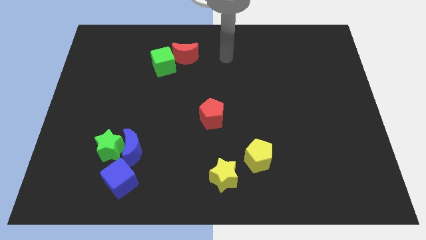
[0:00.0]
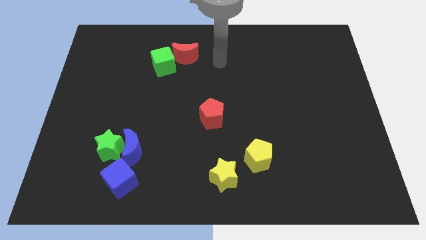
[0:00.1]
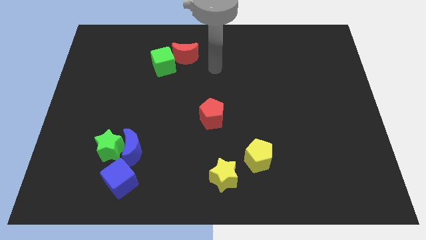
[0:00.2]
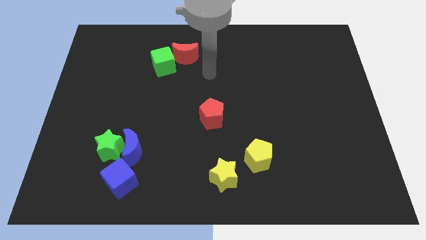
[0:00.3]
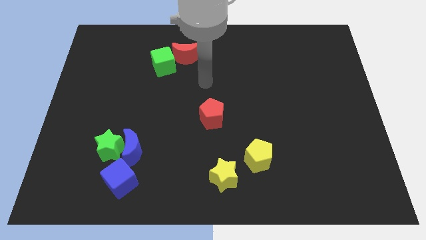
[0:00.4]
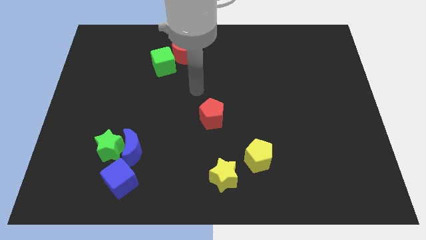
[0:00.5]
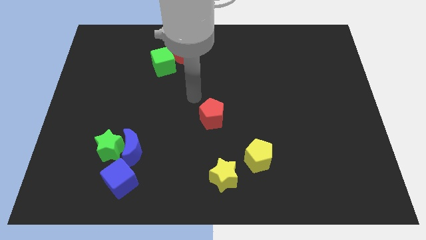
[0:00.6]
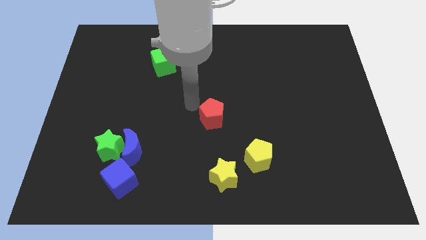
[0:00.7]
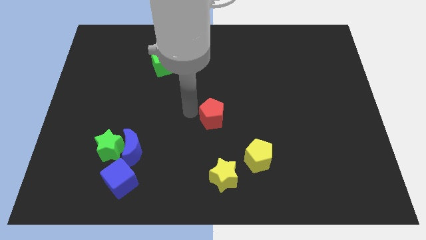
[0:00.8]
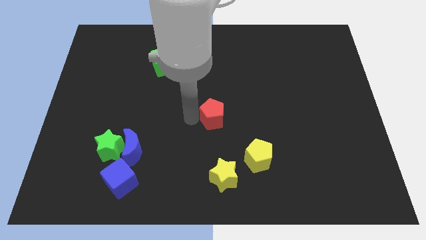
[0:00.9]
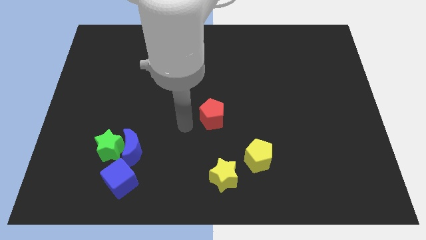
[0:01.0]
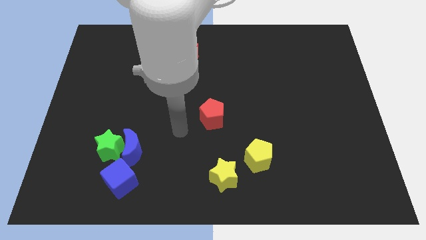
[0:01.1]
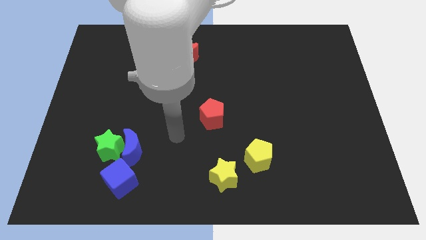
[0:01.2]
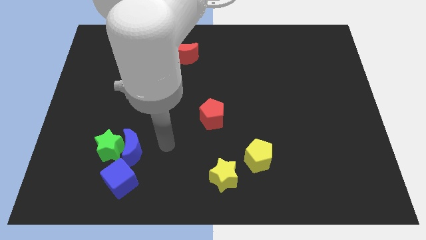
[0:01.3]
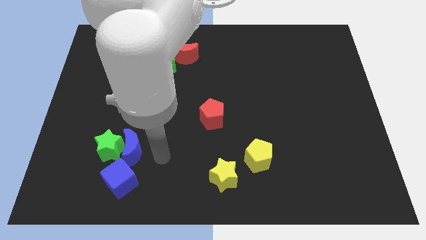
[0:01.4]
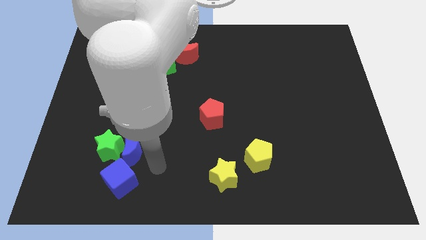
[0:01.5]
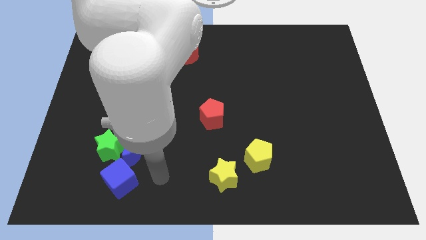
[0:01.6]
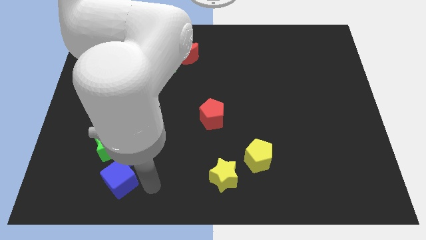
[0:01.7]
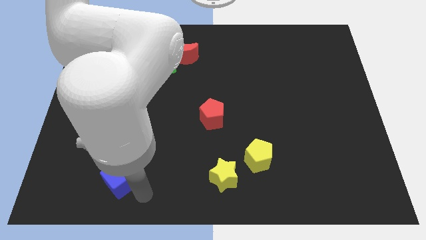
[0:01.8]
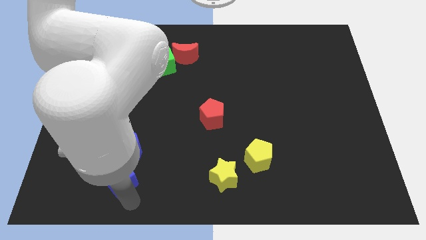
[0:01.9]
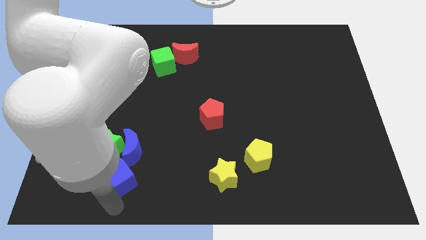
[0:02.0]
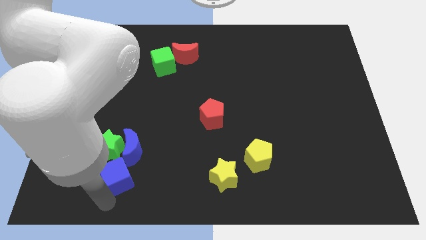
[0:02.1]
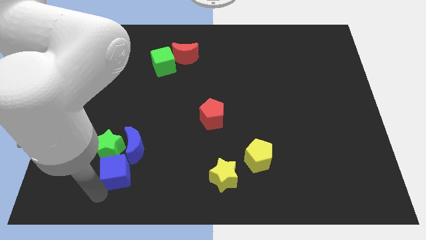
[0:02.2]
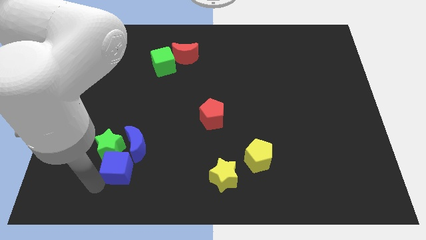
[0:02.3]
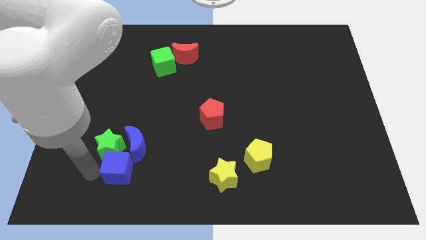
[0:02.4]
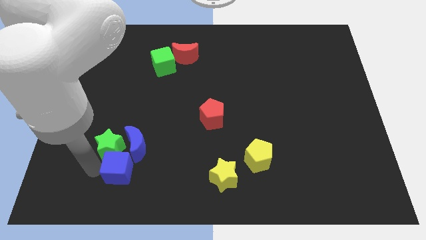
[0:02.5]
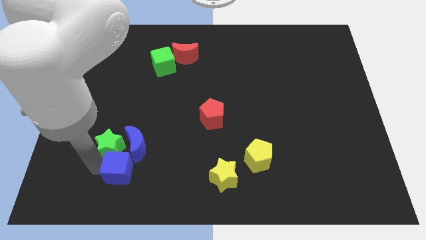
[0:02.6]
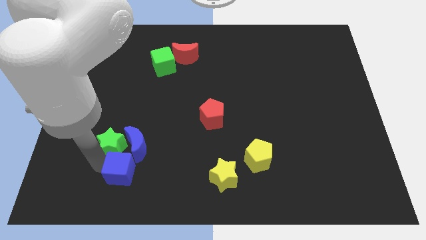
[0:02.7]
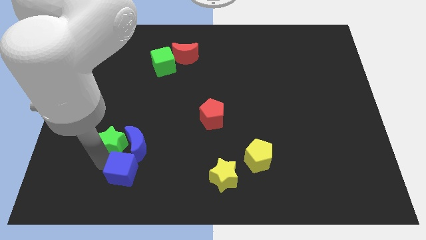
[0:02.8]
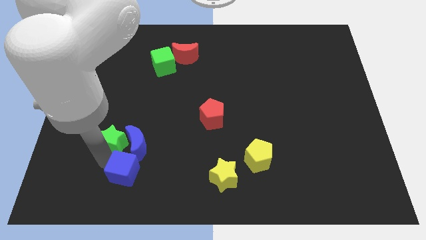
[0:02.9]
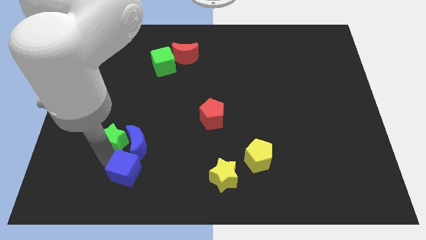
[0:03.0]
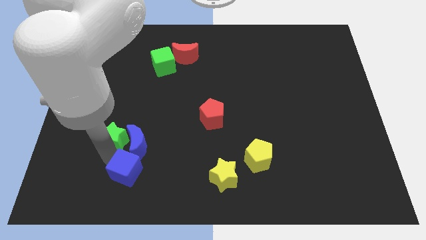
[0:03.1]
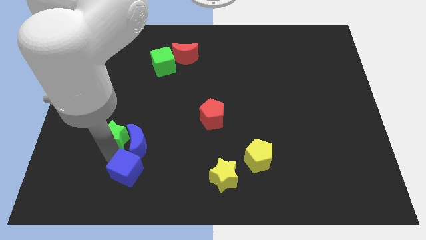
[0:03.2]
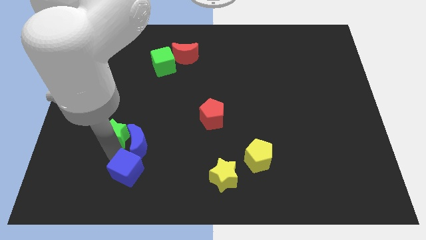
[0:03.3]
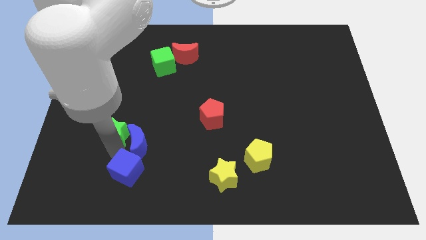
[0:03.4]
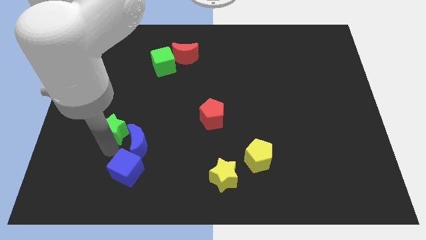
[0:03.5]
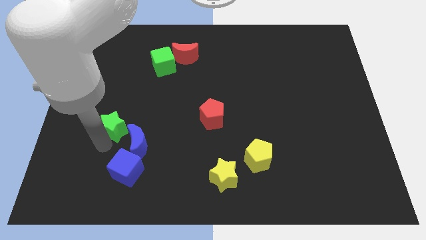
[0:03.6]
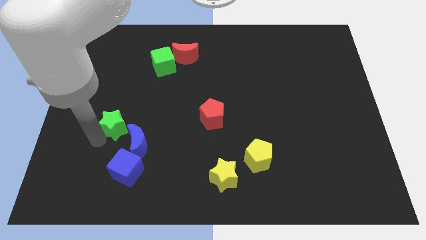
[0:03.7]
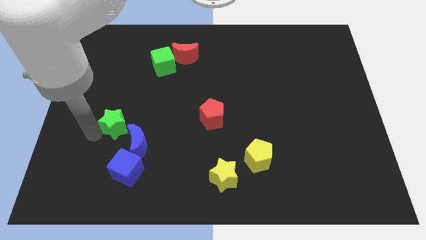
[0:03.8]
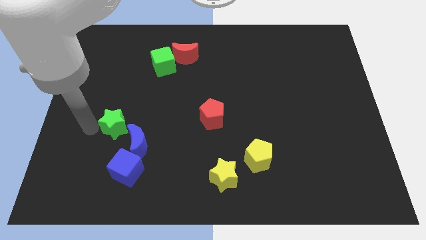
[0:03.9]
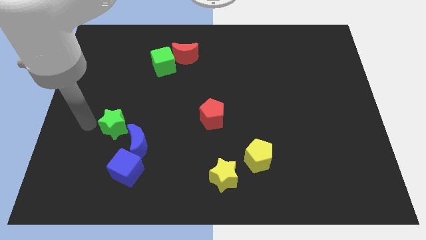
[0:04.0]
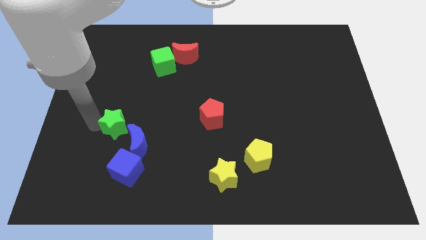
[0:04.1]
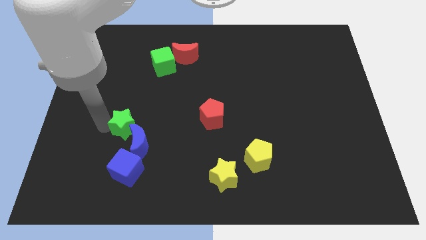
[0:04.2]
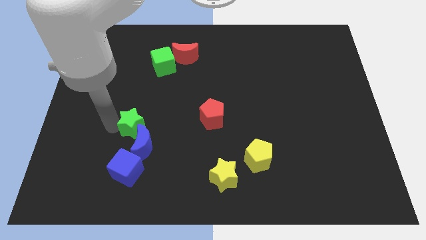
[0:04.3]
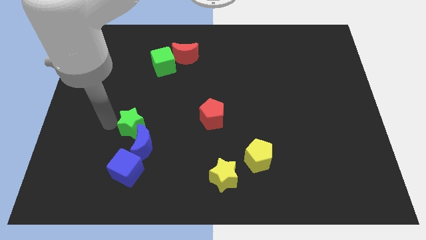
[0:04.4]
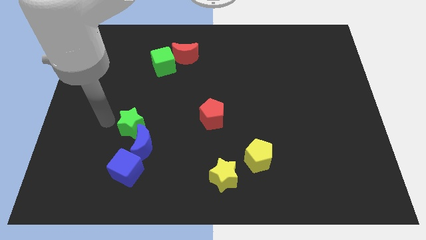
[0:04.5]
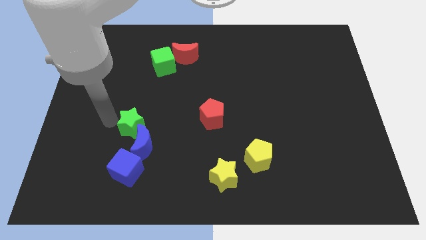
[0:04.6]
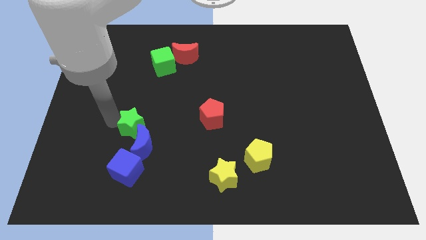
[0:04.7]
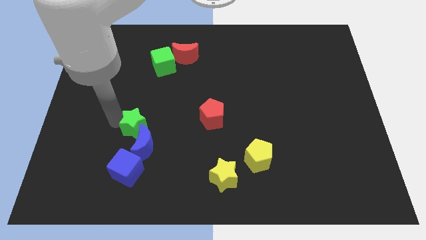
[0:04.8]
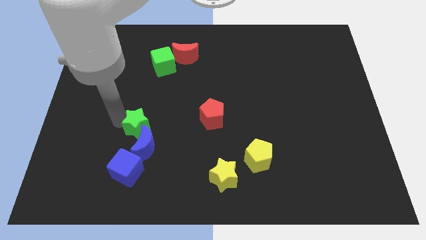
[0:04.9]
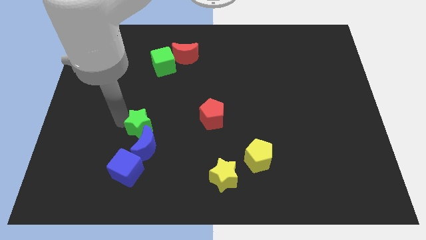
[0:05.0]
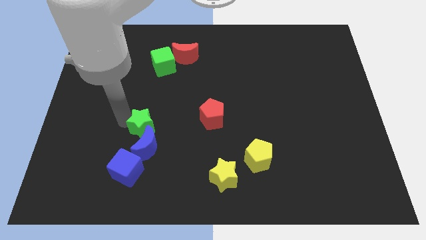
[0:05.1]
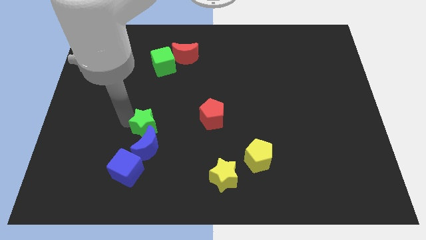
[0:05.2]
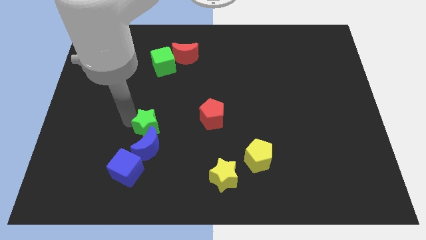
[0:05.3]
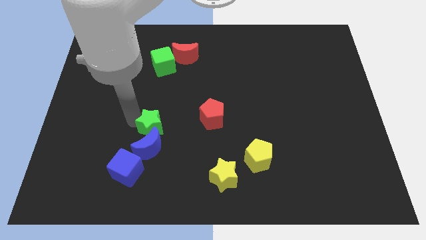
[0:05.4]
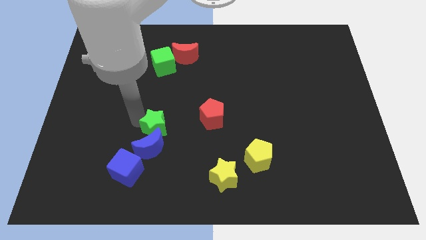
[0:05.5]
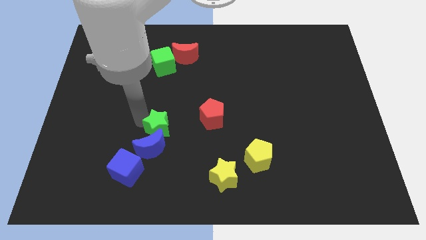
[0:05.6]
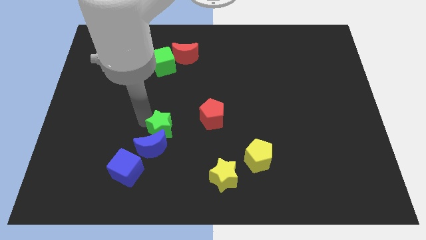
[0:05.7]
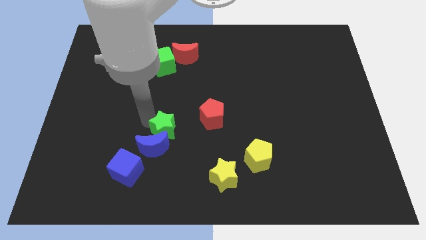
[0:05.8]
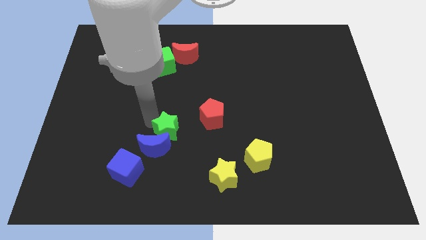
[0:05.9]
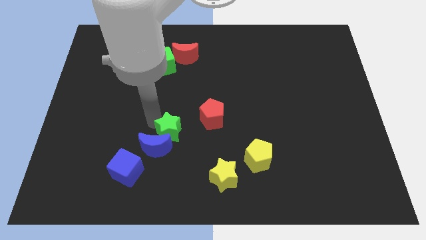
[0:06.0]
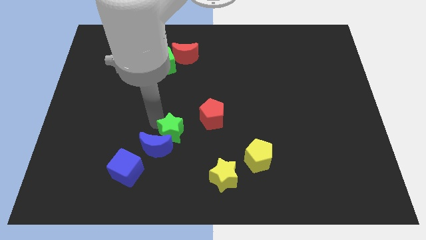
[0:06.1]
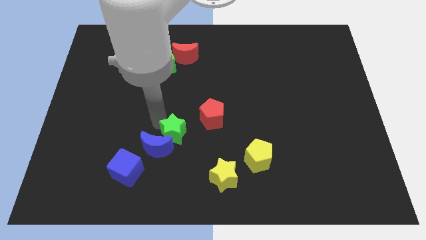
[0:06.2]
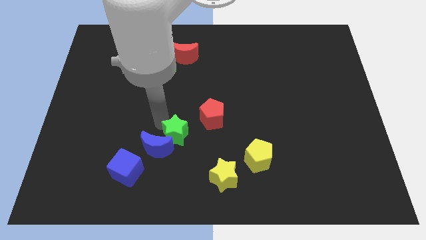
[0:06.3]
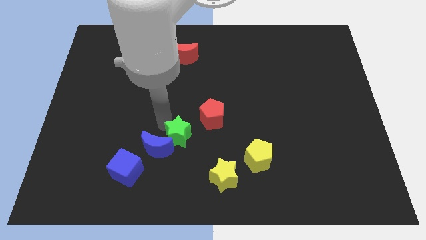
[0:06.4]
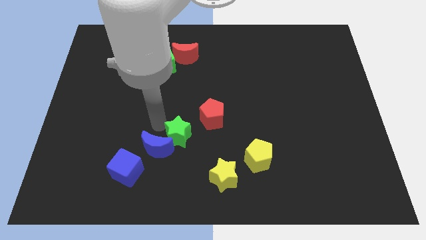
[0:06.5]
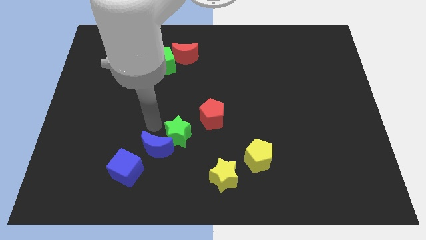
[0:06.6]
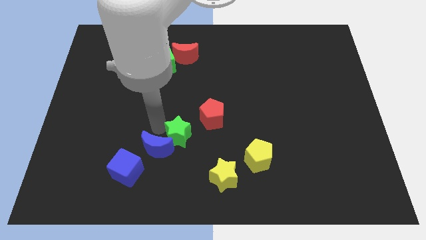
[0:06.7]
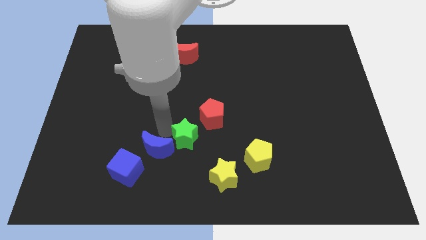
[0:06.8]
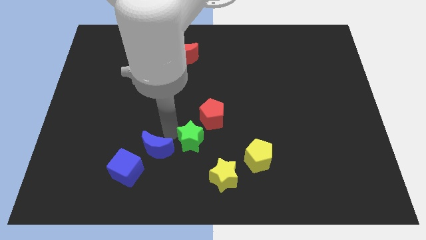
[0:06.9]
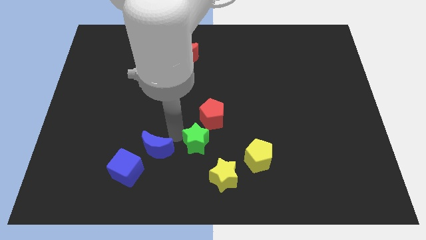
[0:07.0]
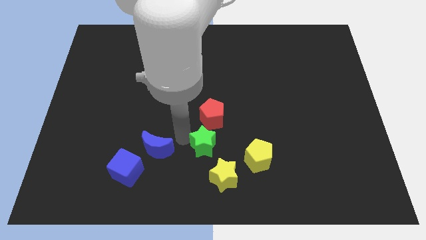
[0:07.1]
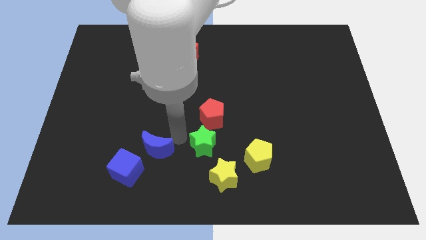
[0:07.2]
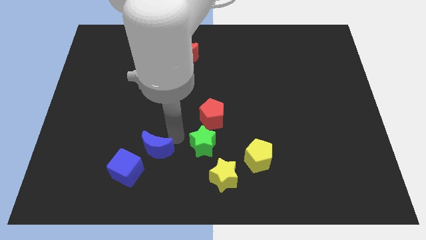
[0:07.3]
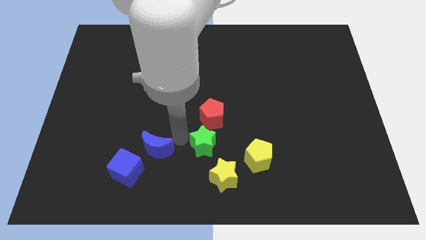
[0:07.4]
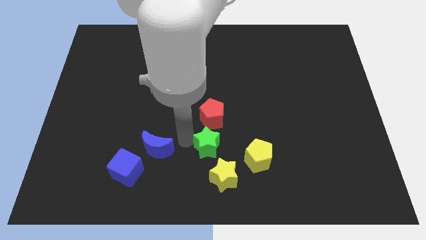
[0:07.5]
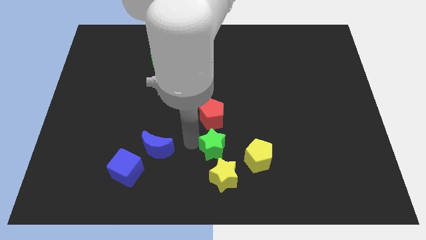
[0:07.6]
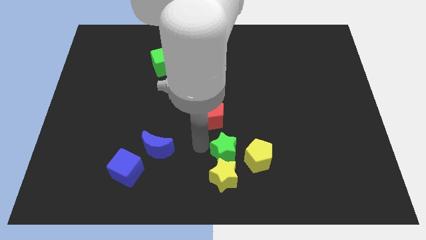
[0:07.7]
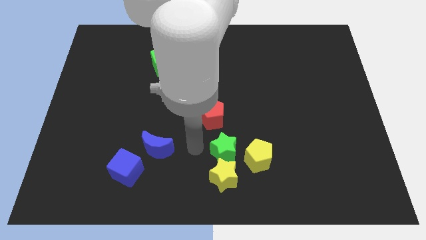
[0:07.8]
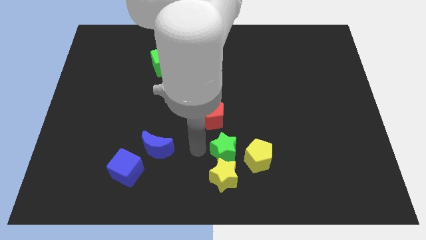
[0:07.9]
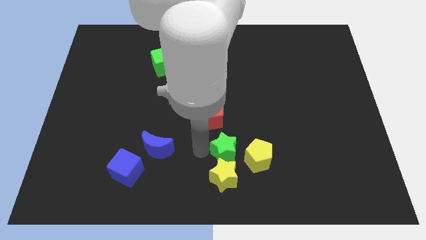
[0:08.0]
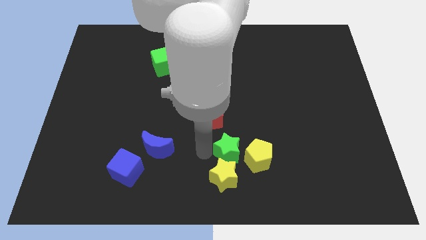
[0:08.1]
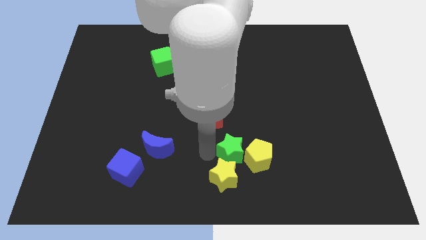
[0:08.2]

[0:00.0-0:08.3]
slide the green star next to the yellow pentagon
